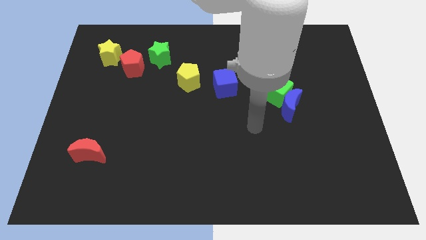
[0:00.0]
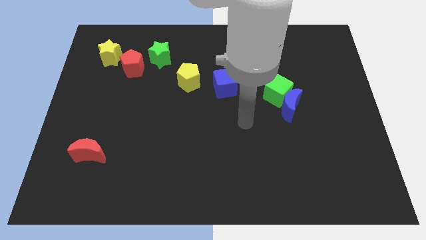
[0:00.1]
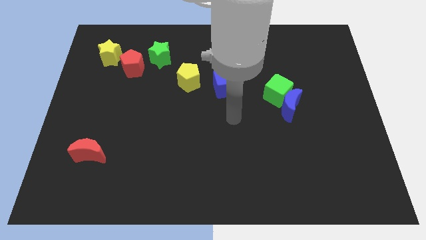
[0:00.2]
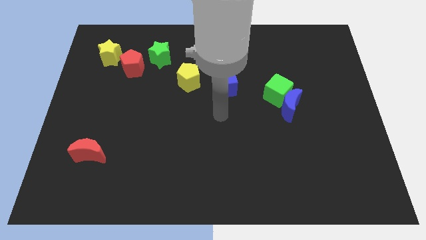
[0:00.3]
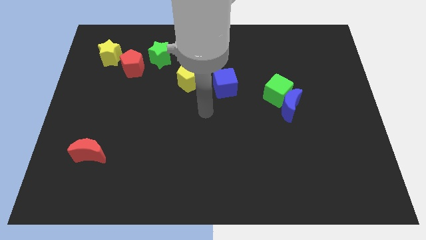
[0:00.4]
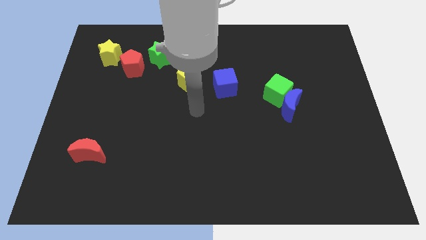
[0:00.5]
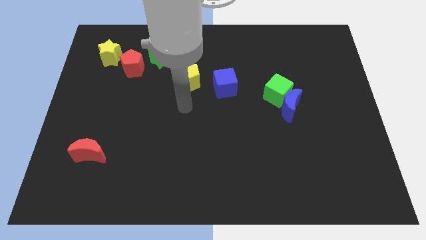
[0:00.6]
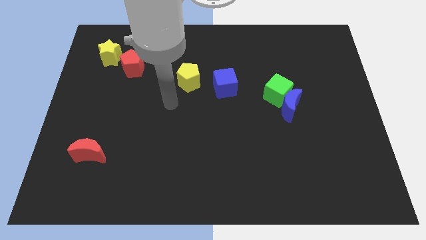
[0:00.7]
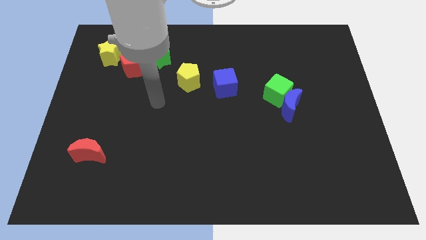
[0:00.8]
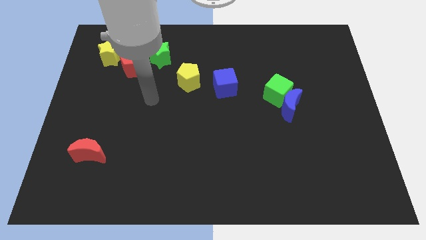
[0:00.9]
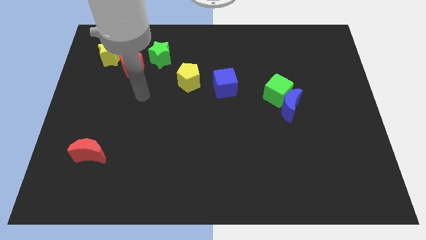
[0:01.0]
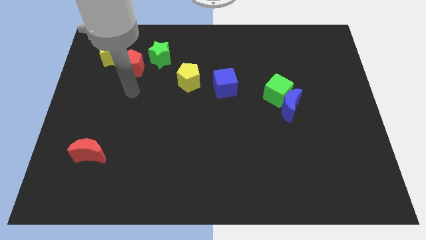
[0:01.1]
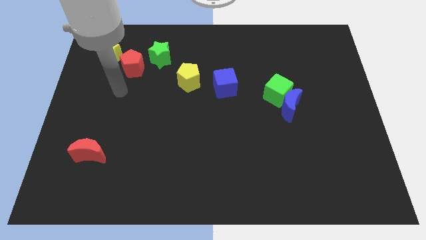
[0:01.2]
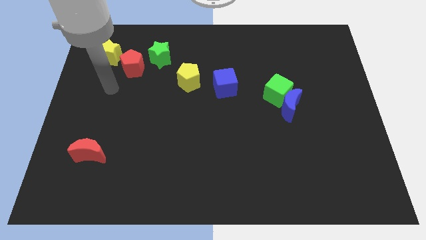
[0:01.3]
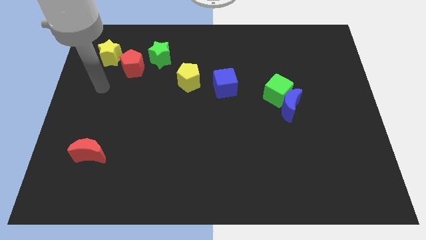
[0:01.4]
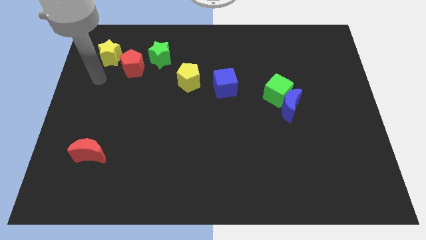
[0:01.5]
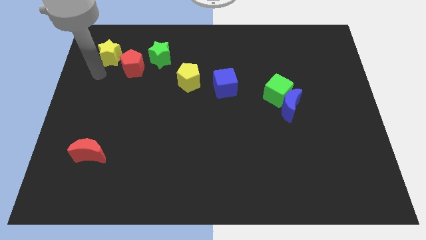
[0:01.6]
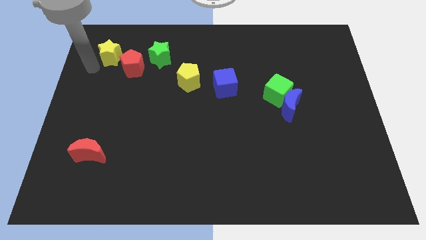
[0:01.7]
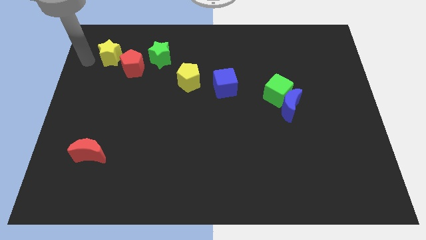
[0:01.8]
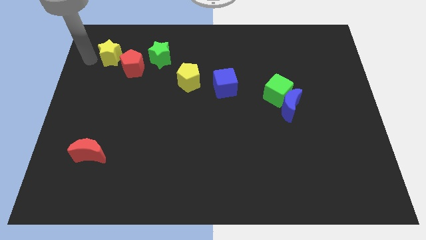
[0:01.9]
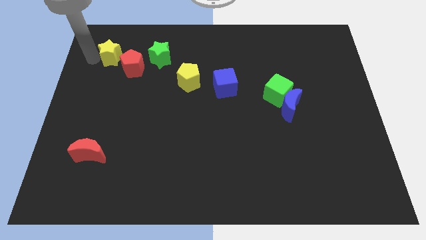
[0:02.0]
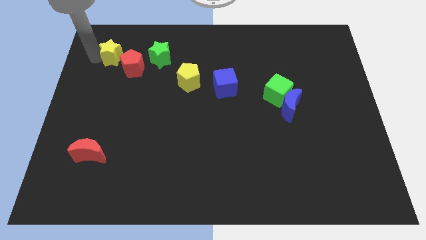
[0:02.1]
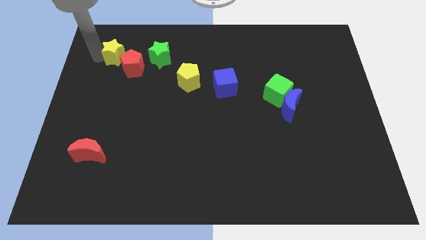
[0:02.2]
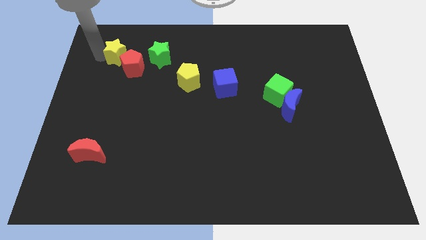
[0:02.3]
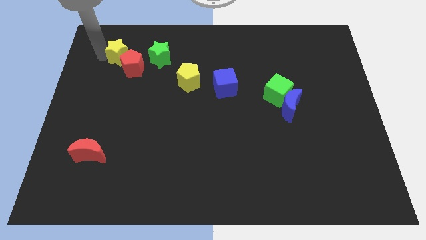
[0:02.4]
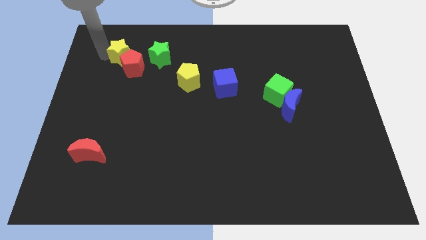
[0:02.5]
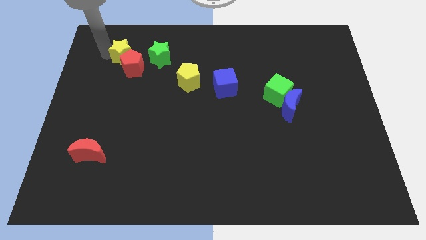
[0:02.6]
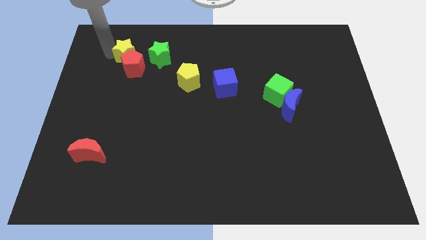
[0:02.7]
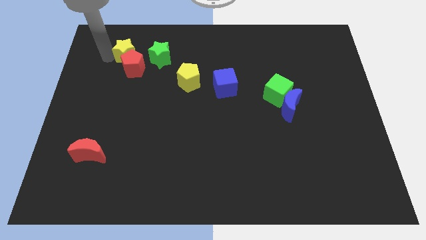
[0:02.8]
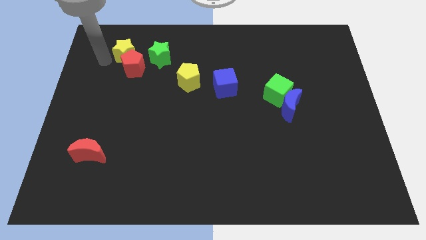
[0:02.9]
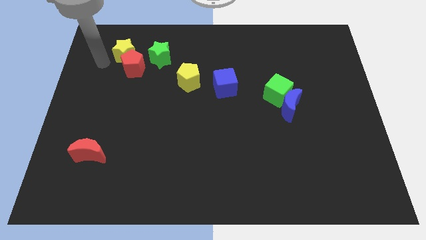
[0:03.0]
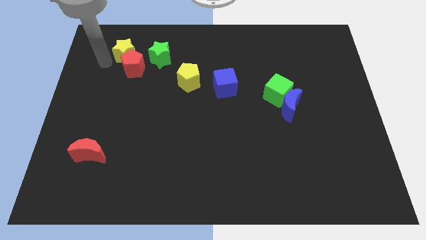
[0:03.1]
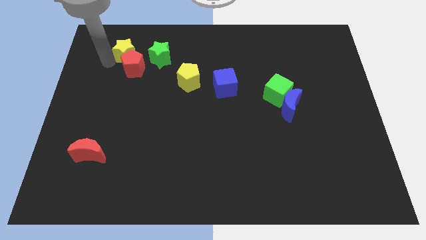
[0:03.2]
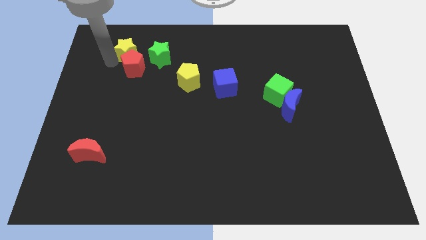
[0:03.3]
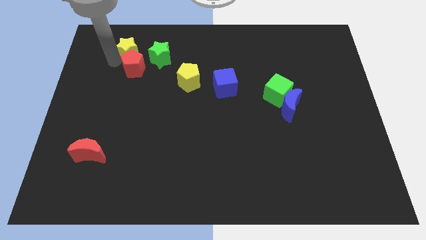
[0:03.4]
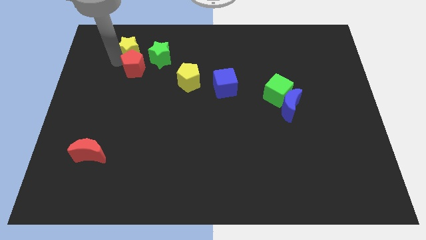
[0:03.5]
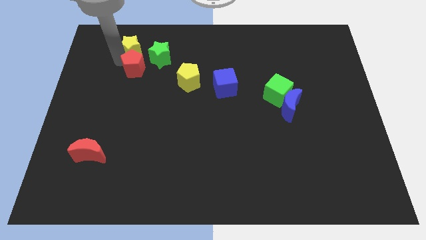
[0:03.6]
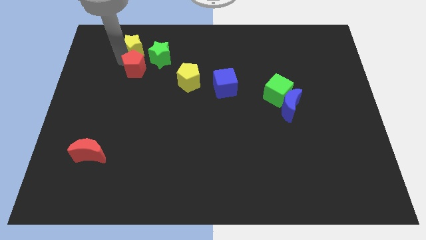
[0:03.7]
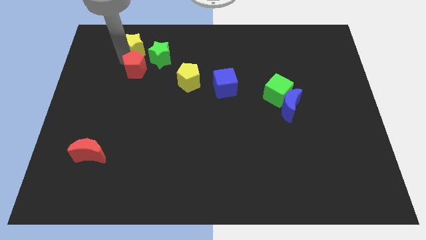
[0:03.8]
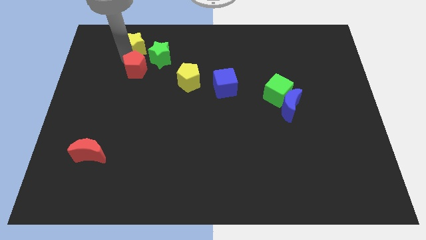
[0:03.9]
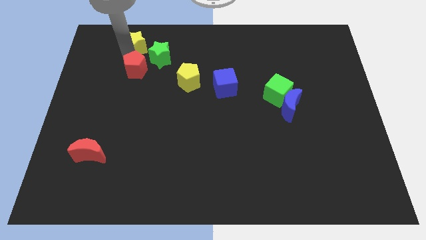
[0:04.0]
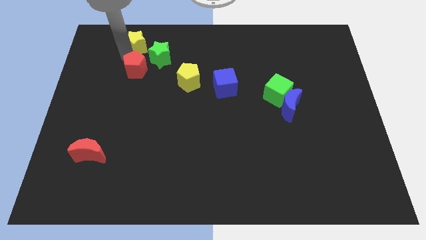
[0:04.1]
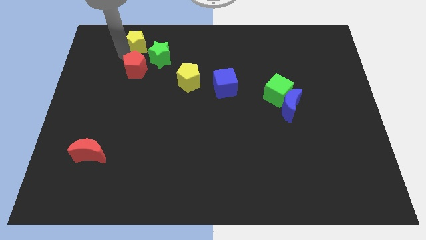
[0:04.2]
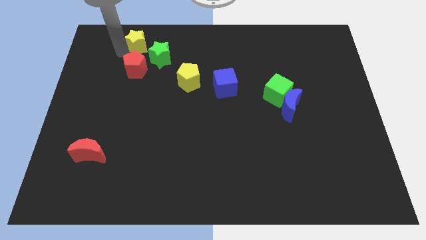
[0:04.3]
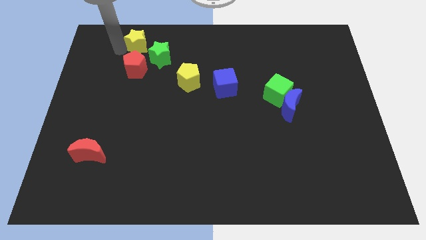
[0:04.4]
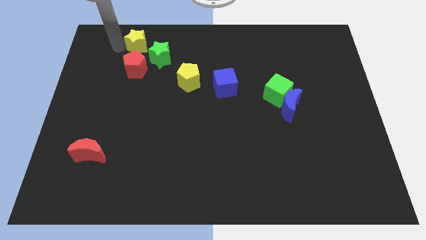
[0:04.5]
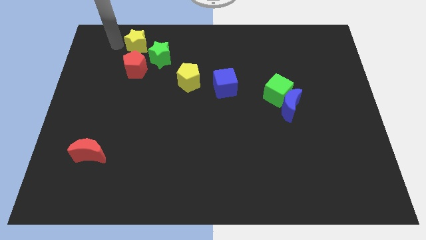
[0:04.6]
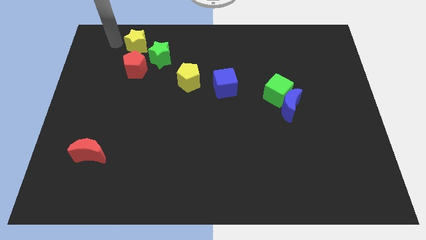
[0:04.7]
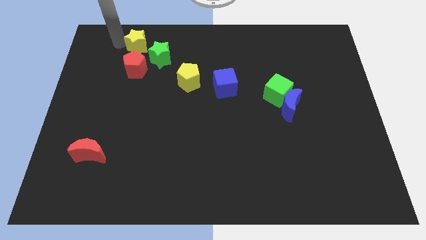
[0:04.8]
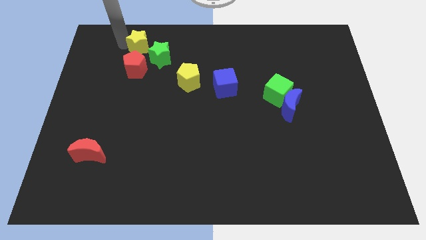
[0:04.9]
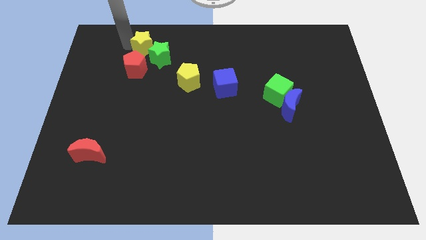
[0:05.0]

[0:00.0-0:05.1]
slightly slide the yellow star to the right

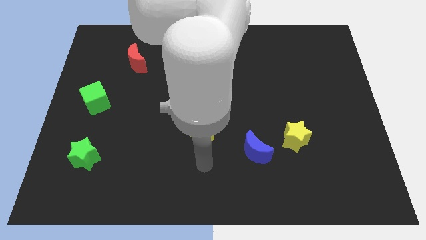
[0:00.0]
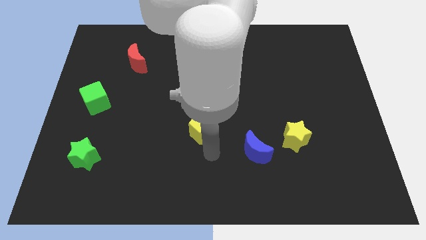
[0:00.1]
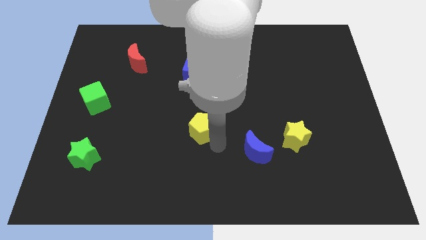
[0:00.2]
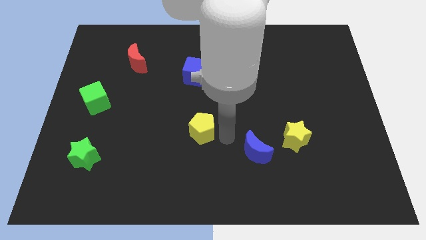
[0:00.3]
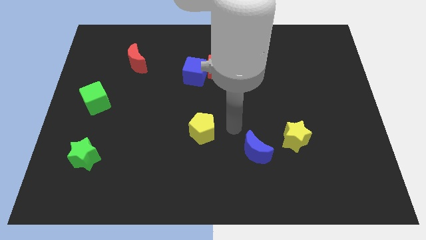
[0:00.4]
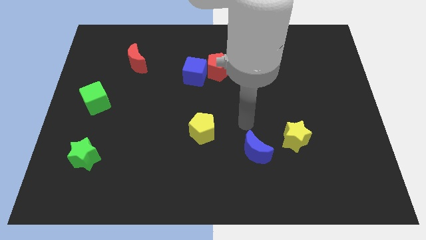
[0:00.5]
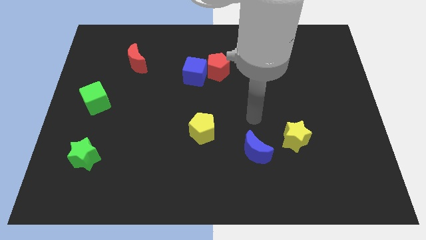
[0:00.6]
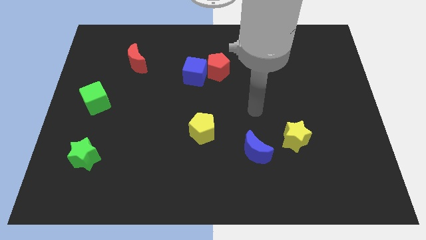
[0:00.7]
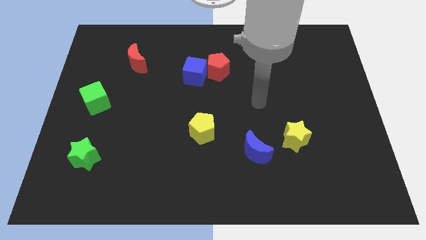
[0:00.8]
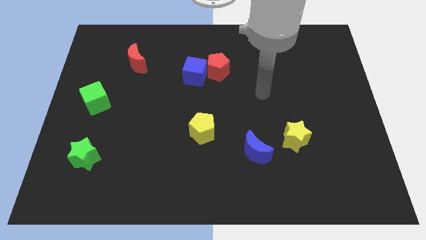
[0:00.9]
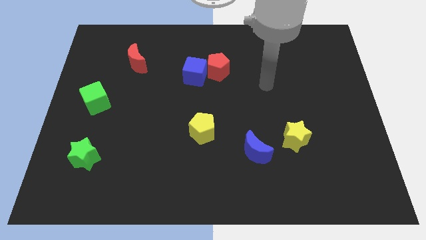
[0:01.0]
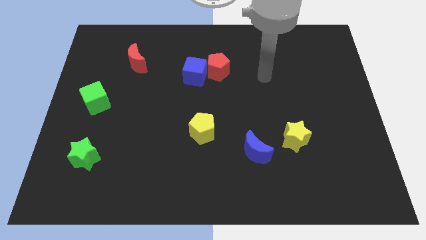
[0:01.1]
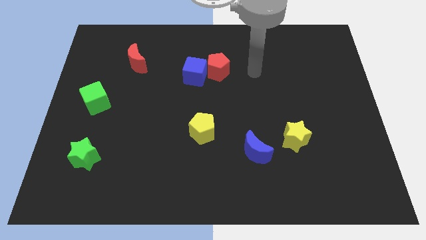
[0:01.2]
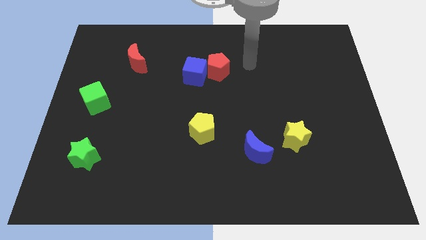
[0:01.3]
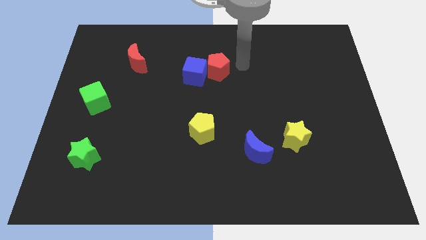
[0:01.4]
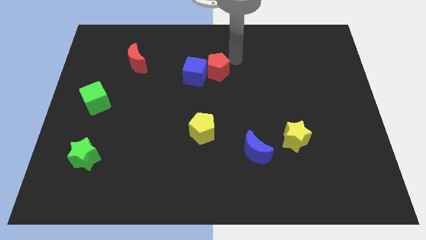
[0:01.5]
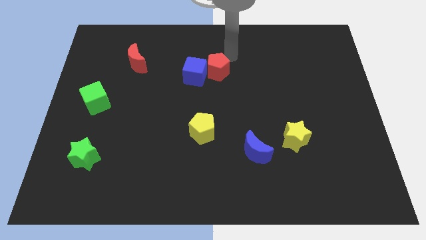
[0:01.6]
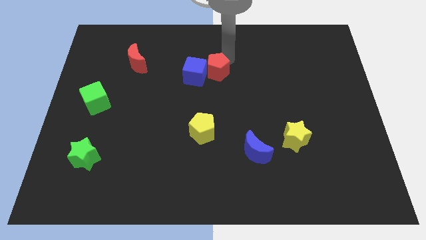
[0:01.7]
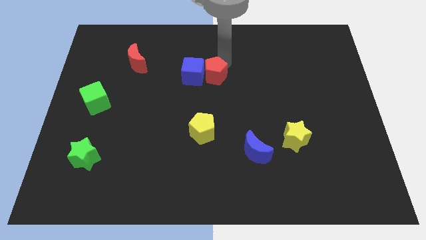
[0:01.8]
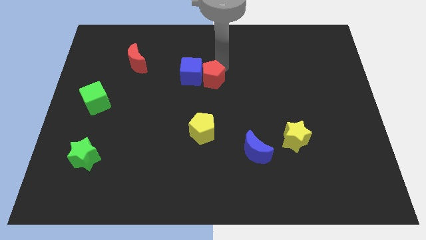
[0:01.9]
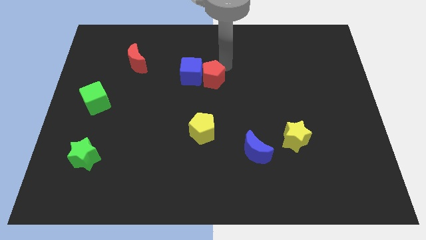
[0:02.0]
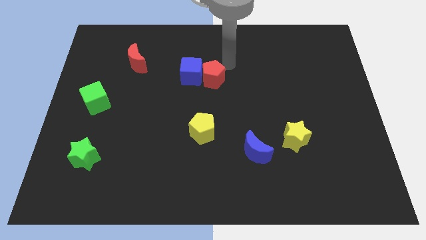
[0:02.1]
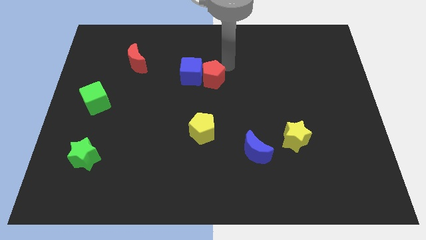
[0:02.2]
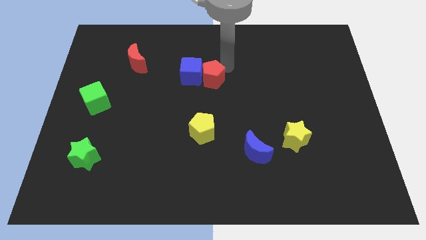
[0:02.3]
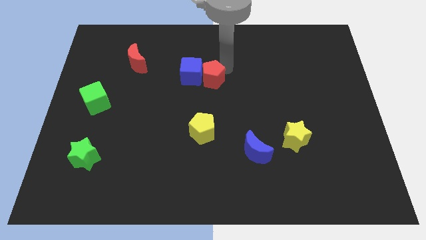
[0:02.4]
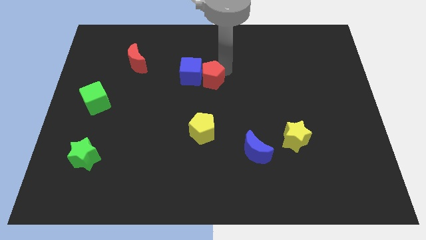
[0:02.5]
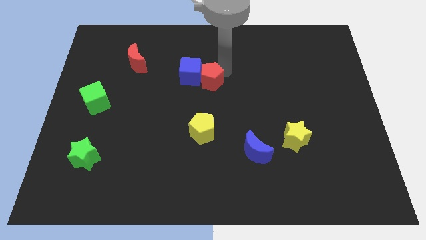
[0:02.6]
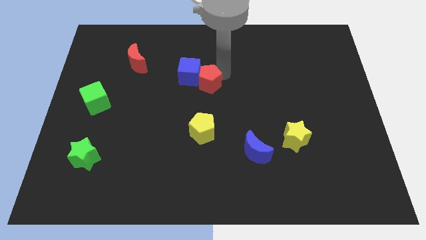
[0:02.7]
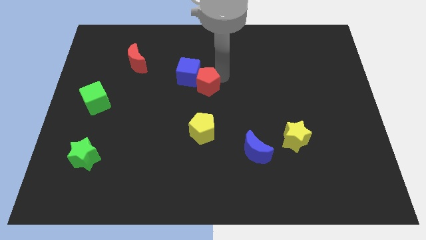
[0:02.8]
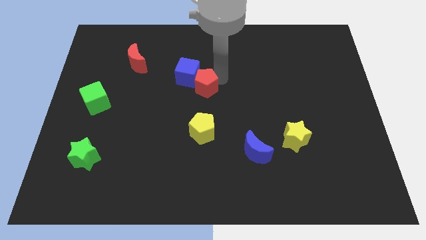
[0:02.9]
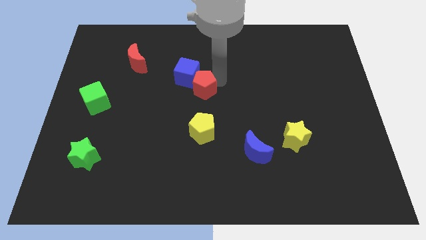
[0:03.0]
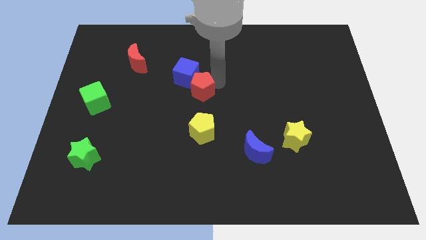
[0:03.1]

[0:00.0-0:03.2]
move the red pentagon diagonally down and left slightly

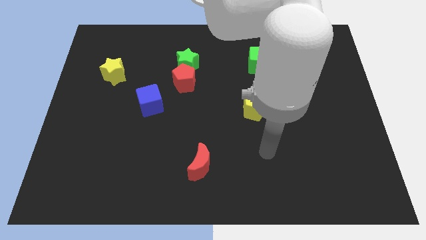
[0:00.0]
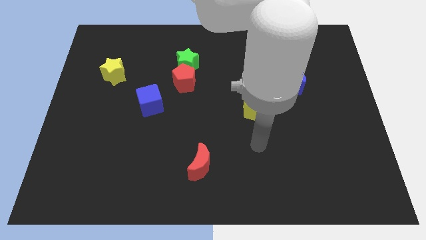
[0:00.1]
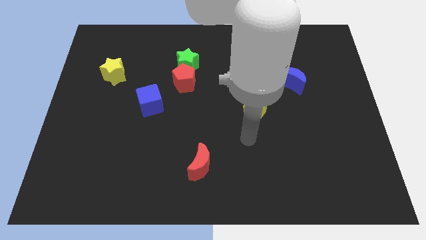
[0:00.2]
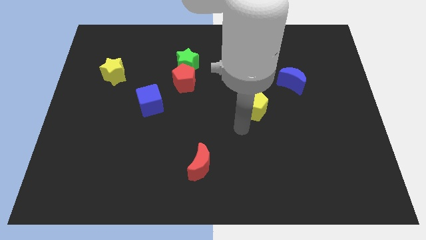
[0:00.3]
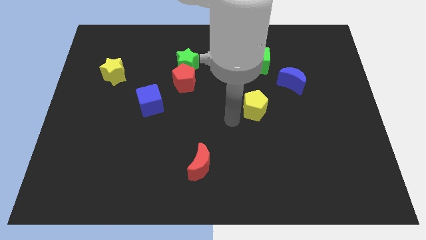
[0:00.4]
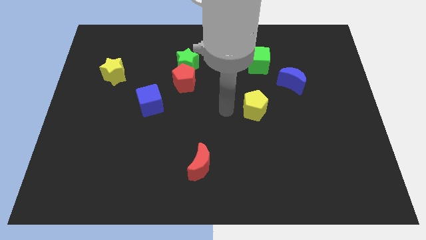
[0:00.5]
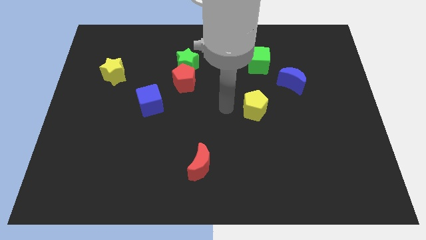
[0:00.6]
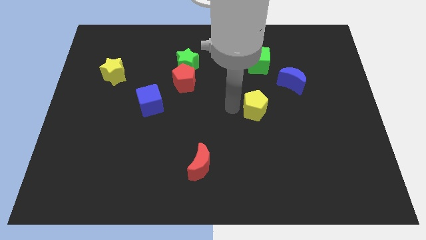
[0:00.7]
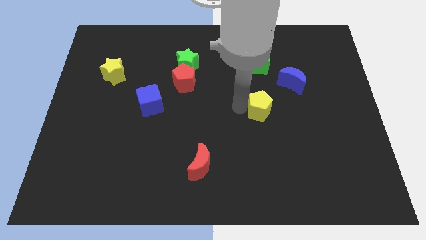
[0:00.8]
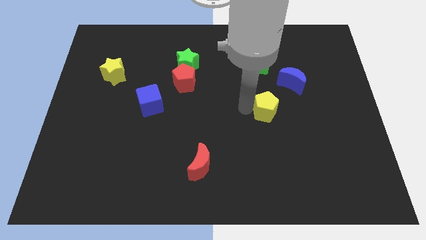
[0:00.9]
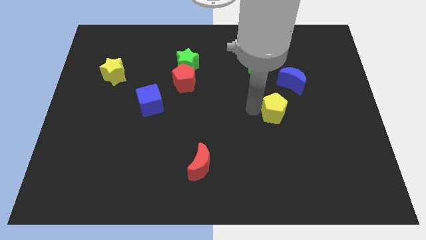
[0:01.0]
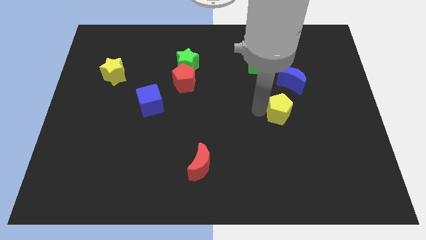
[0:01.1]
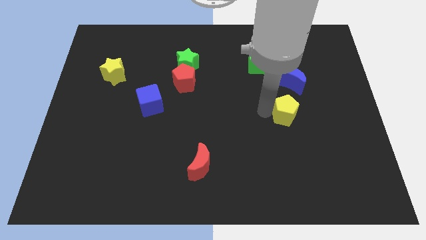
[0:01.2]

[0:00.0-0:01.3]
move the yellow pentagon right a bit
